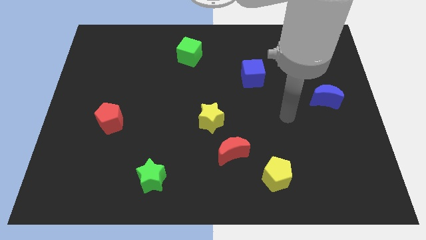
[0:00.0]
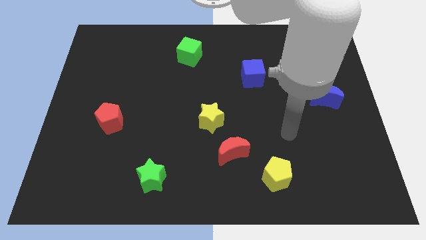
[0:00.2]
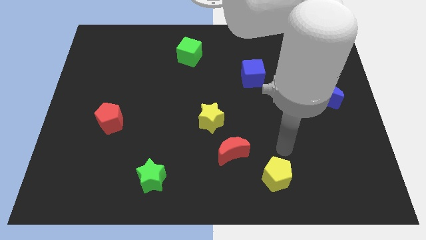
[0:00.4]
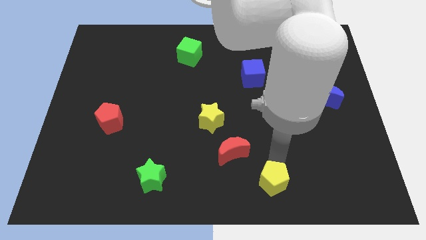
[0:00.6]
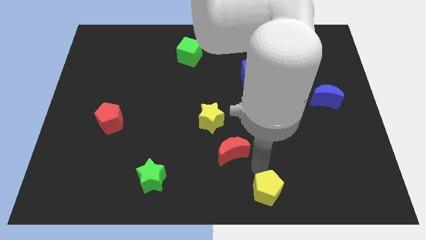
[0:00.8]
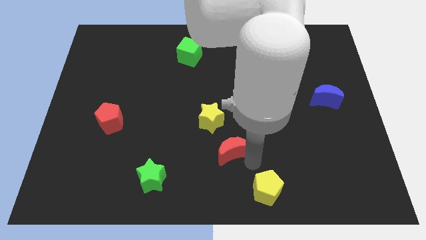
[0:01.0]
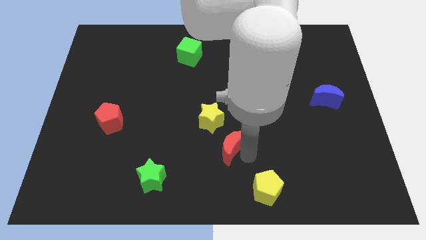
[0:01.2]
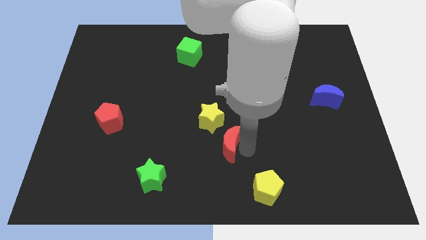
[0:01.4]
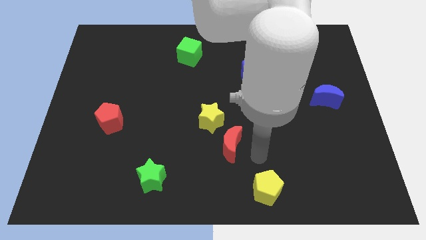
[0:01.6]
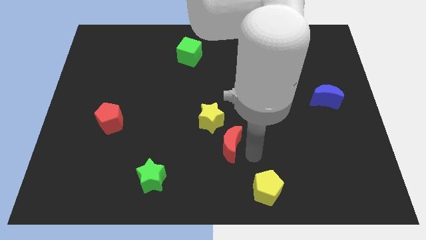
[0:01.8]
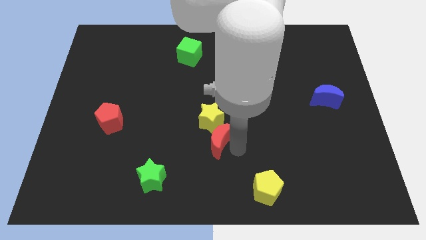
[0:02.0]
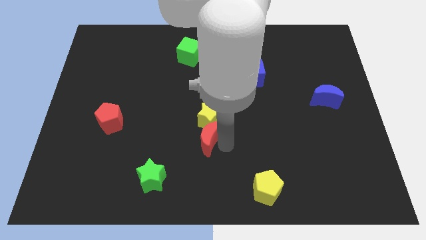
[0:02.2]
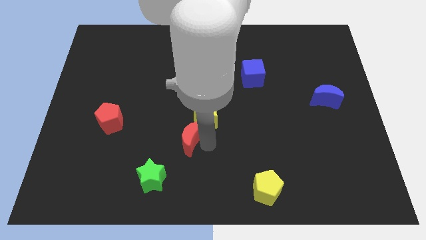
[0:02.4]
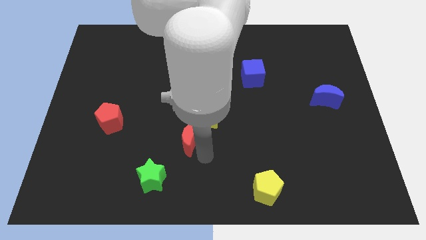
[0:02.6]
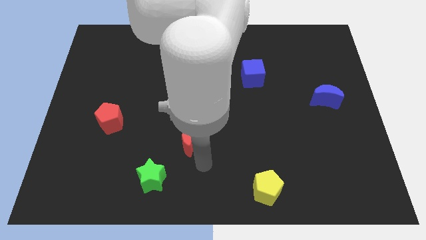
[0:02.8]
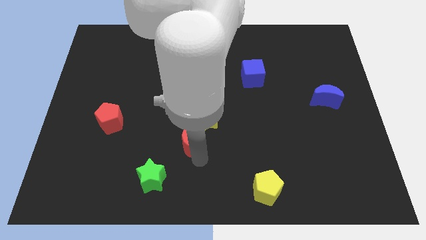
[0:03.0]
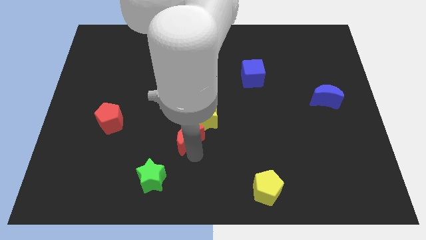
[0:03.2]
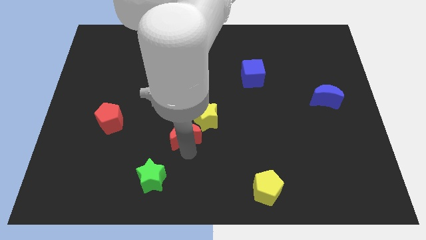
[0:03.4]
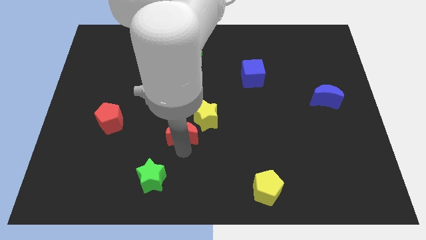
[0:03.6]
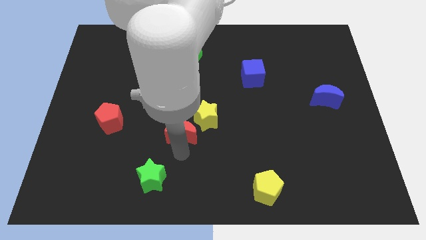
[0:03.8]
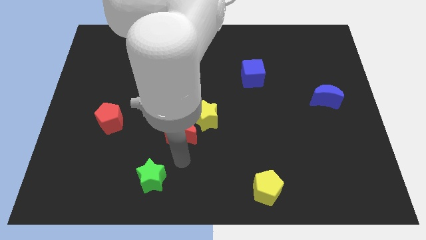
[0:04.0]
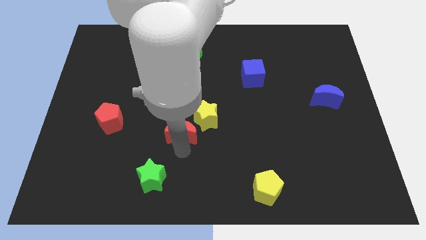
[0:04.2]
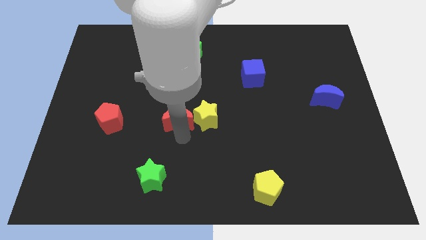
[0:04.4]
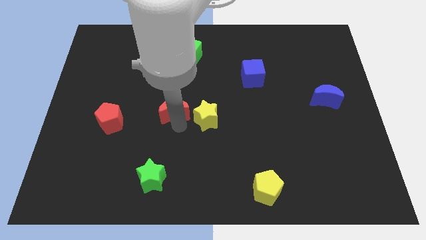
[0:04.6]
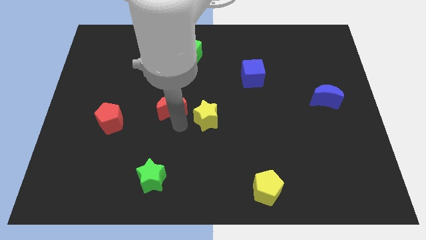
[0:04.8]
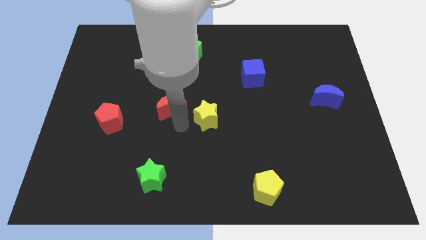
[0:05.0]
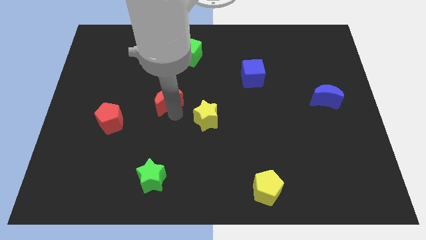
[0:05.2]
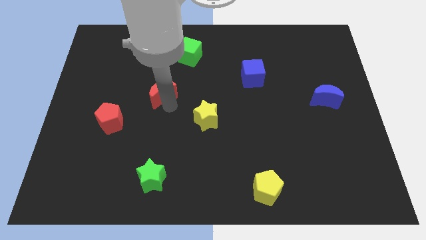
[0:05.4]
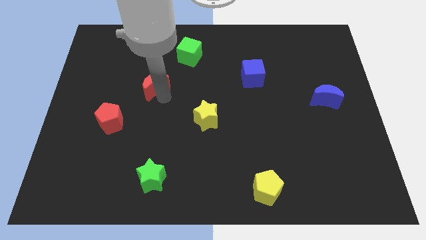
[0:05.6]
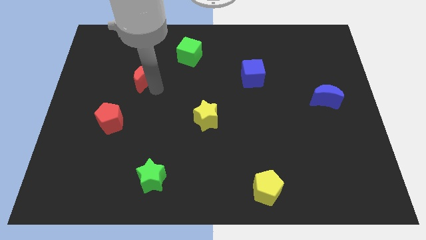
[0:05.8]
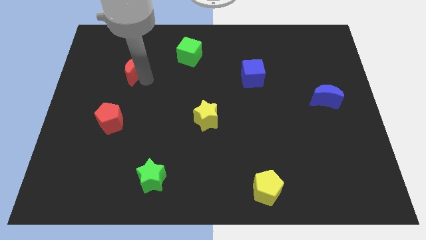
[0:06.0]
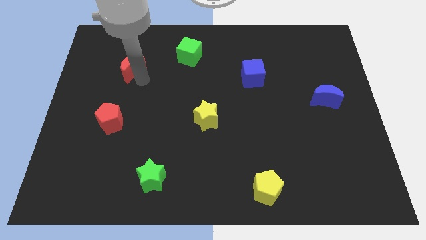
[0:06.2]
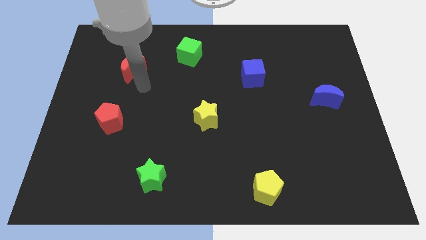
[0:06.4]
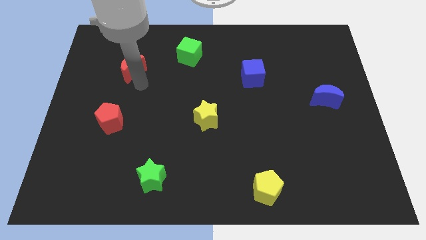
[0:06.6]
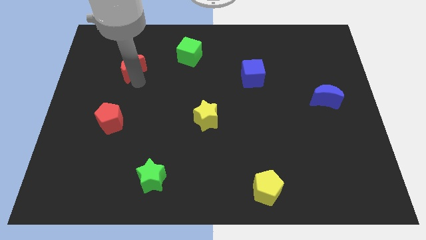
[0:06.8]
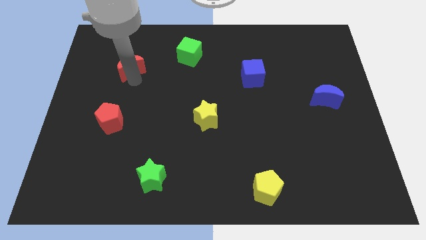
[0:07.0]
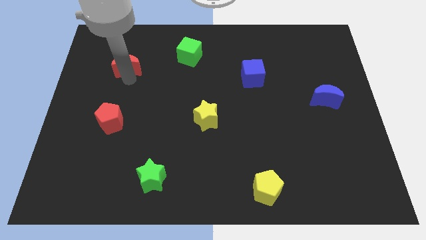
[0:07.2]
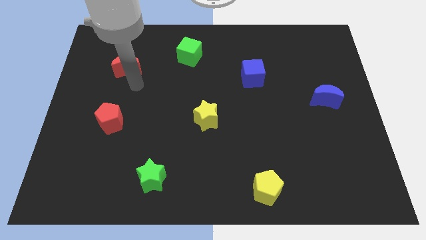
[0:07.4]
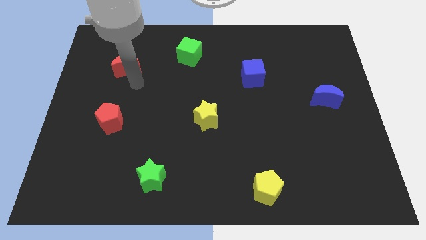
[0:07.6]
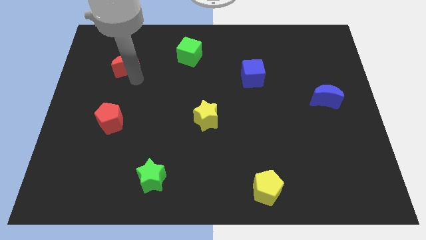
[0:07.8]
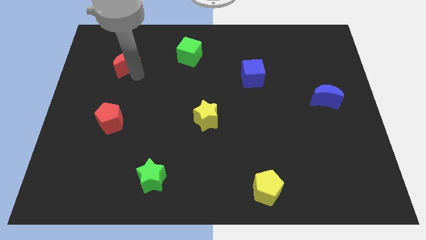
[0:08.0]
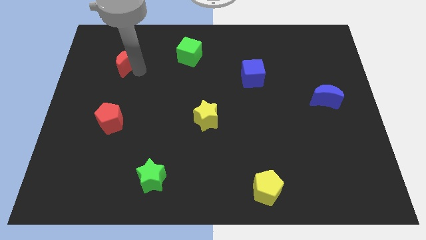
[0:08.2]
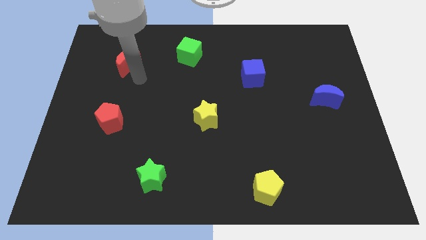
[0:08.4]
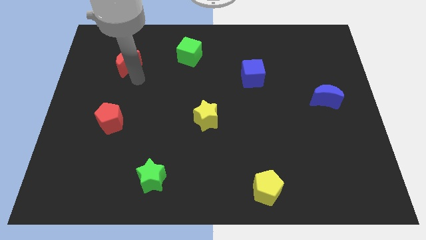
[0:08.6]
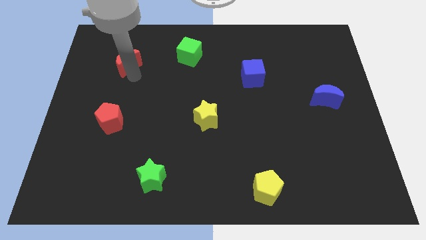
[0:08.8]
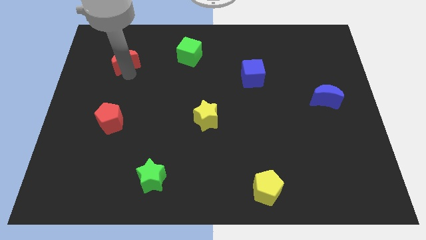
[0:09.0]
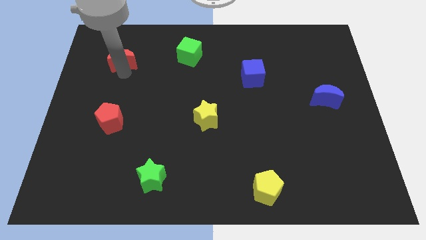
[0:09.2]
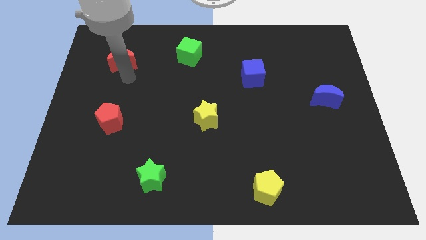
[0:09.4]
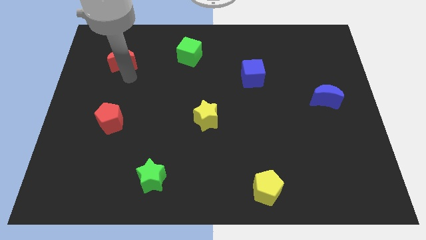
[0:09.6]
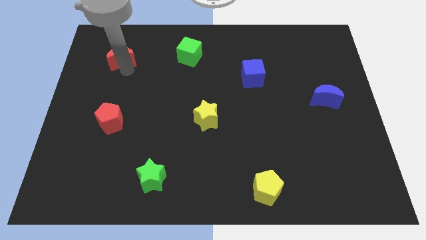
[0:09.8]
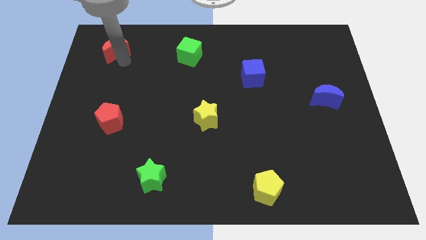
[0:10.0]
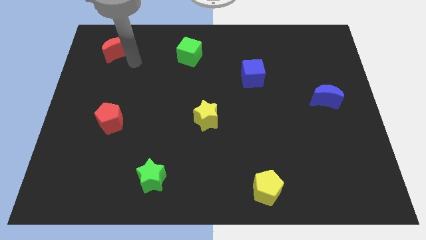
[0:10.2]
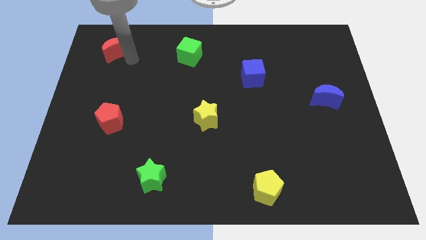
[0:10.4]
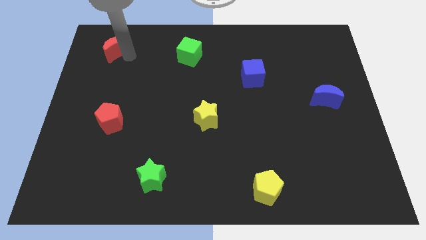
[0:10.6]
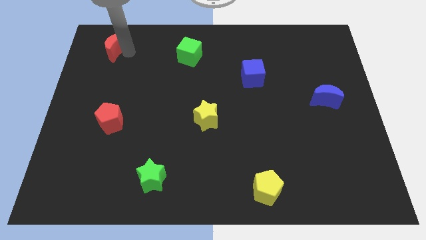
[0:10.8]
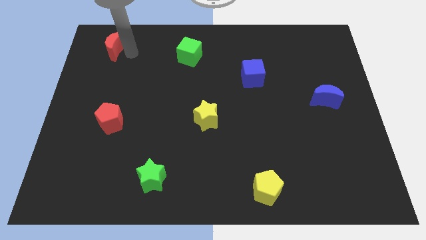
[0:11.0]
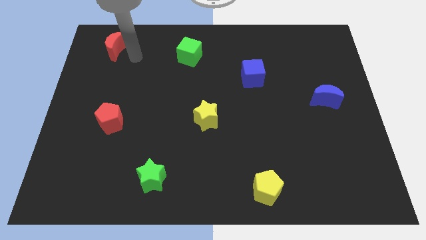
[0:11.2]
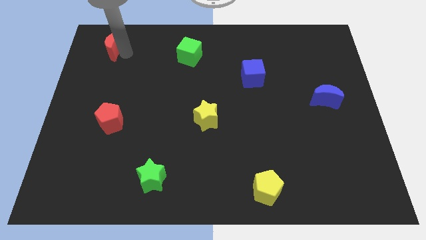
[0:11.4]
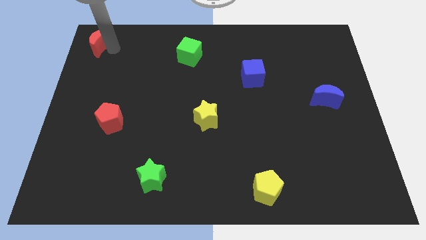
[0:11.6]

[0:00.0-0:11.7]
move the red moon to the top left
